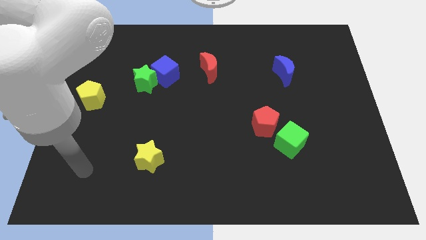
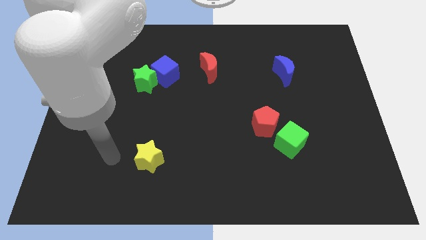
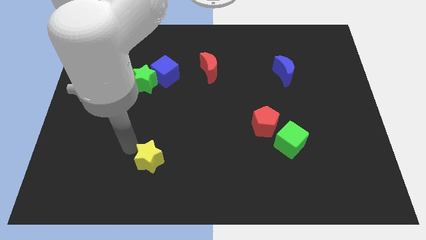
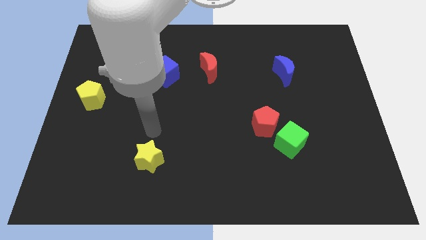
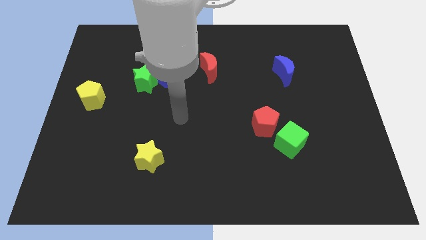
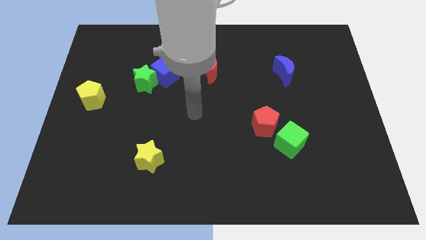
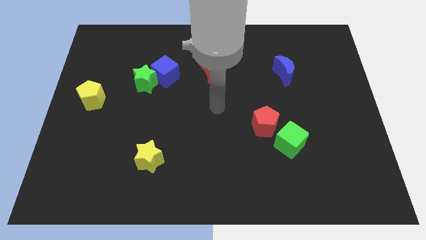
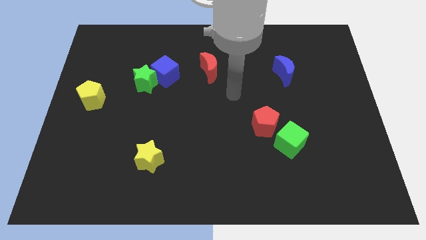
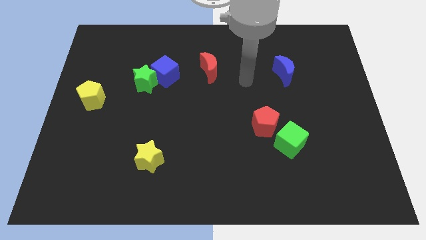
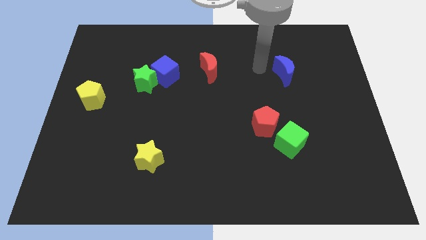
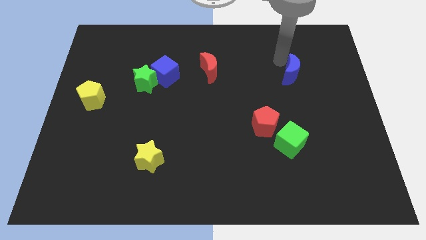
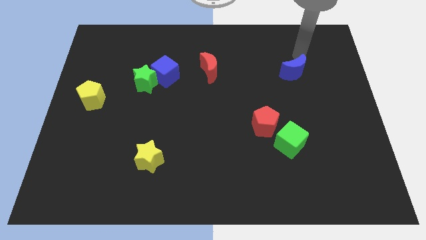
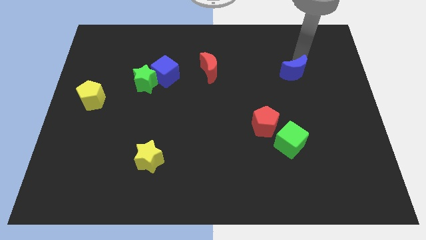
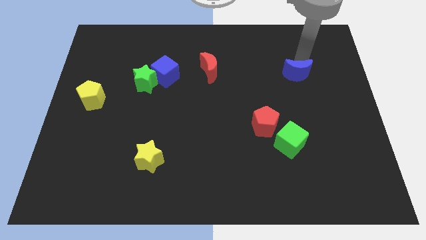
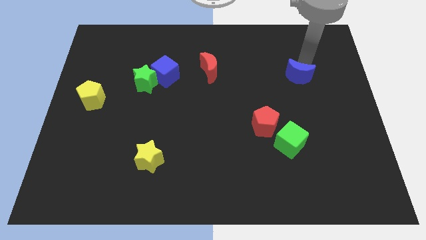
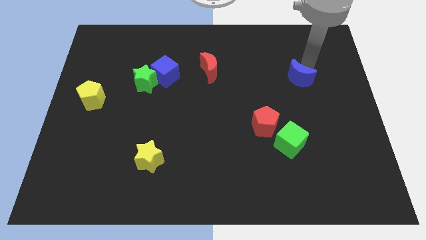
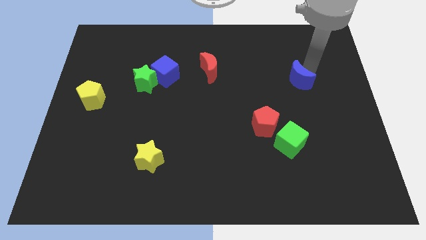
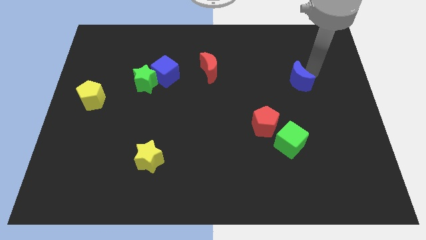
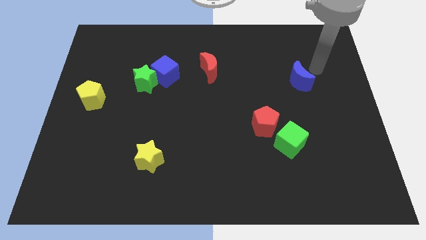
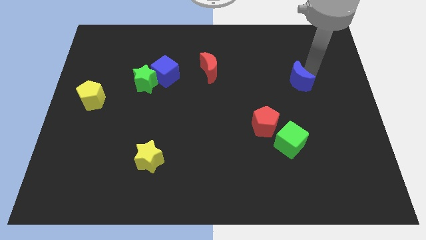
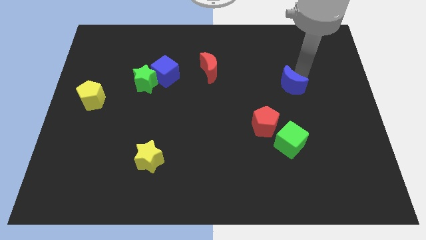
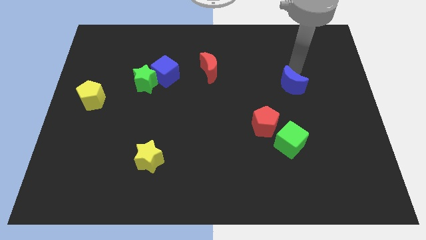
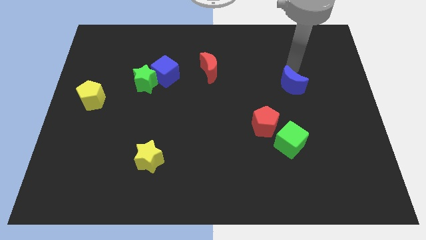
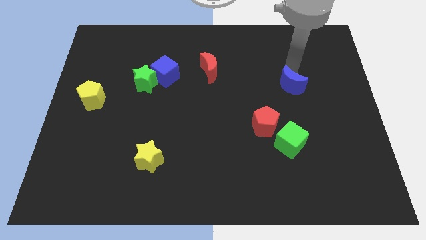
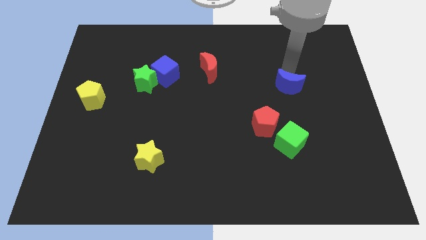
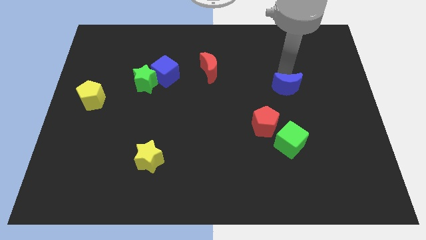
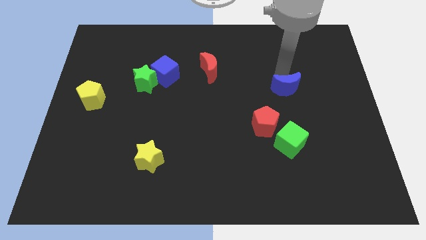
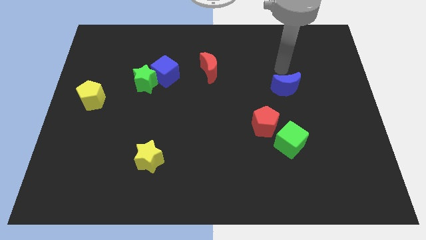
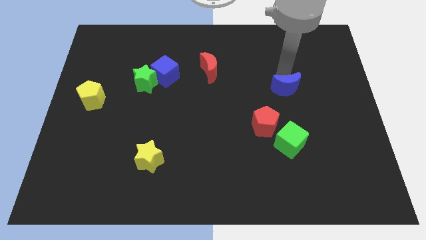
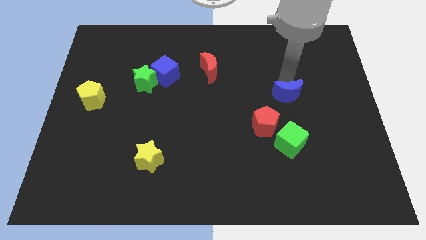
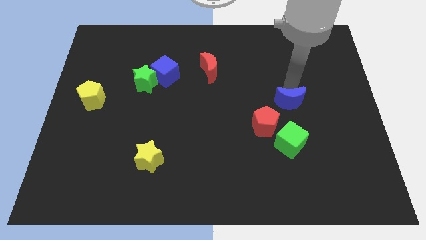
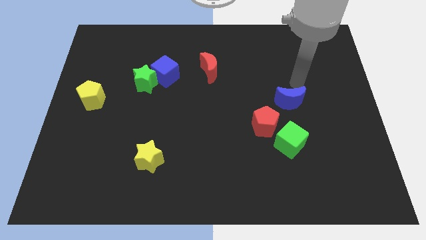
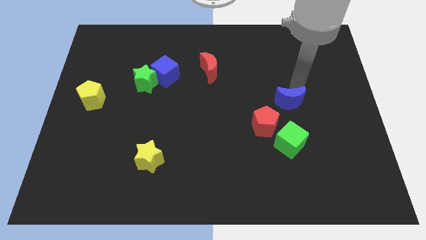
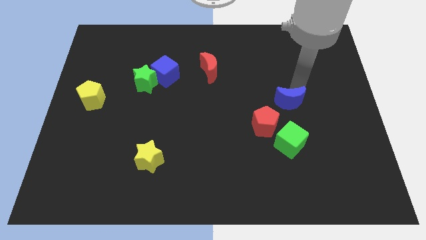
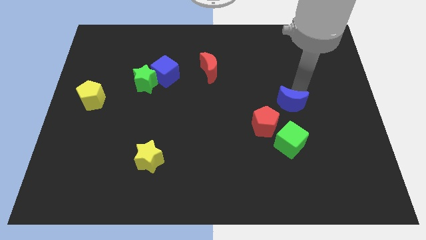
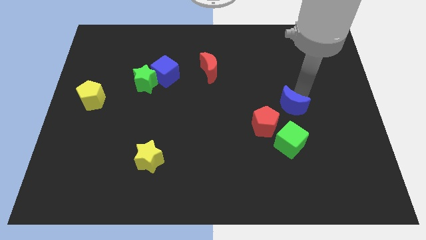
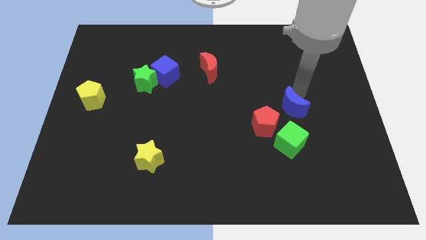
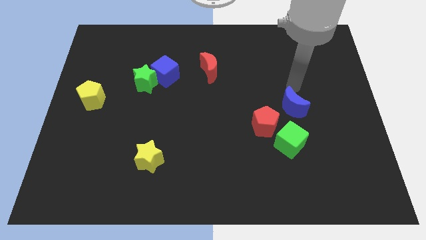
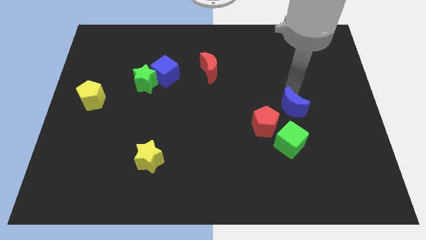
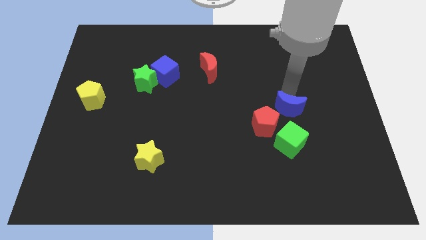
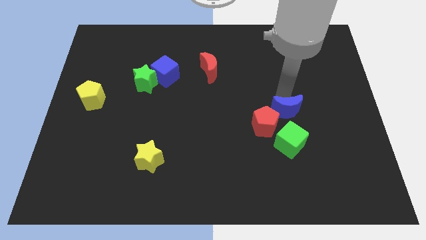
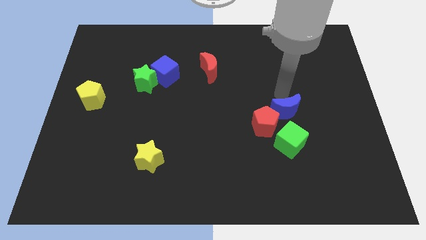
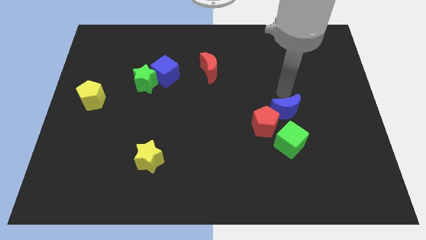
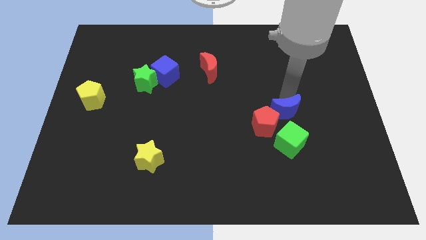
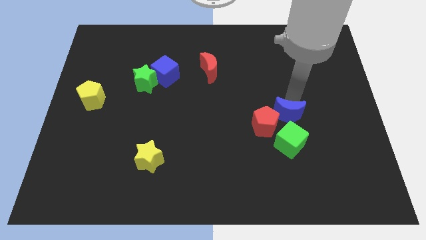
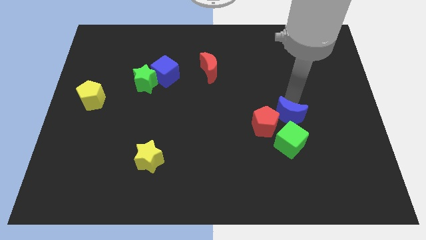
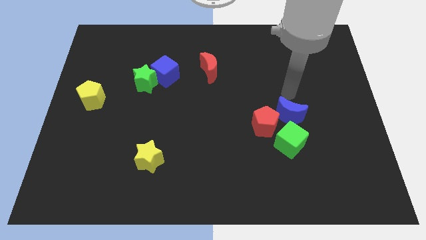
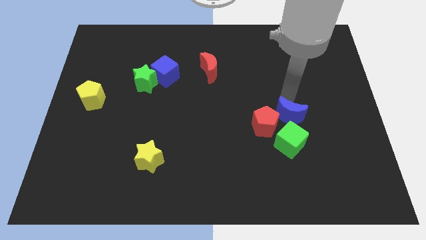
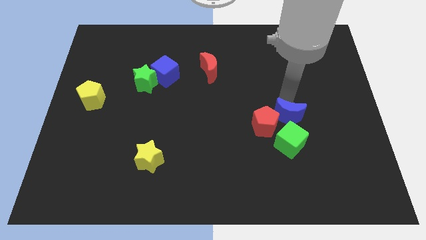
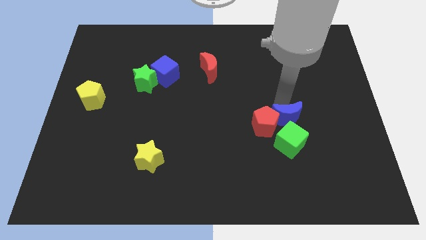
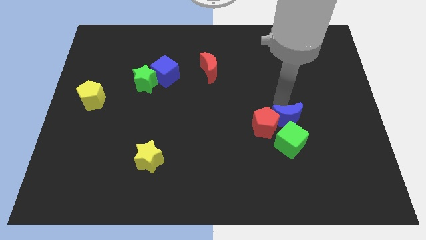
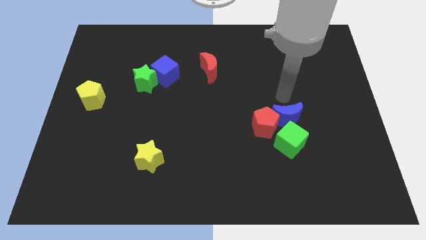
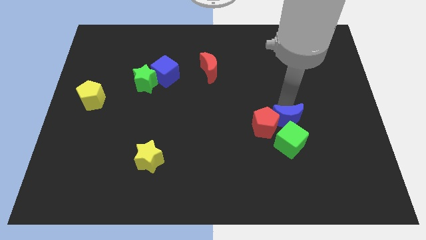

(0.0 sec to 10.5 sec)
slide the blue moon next to the green cube

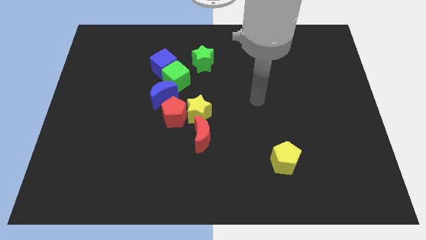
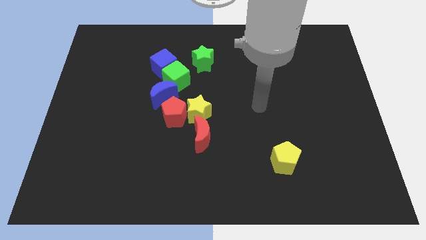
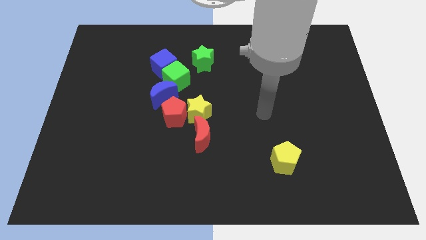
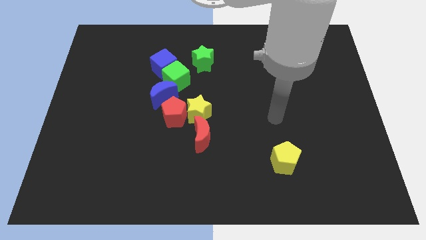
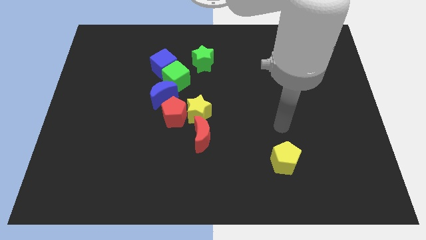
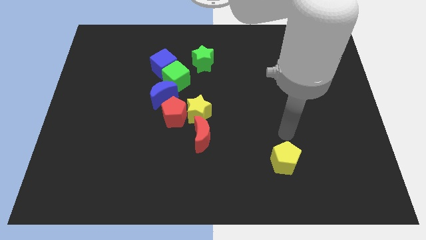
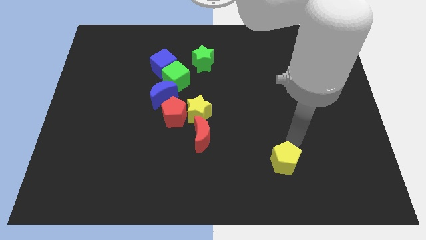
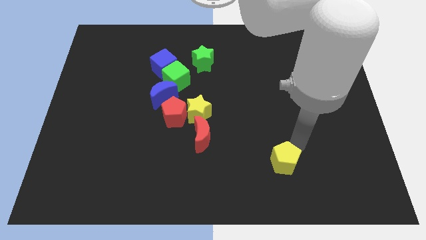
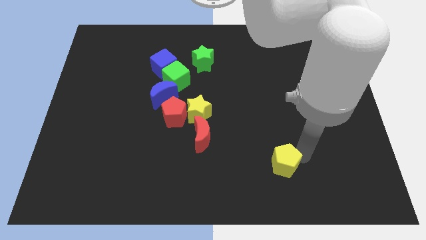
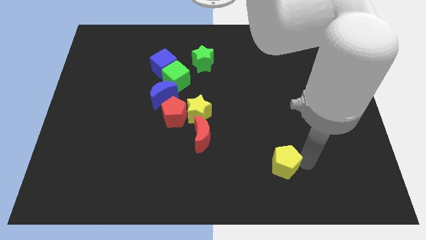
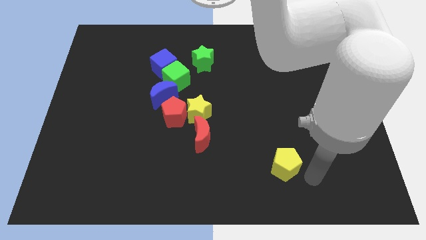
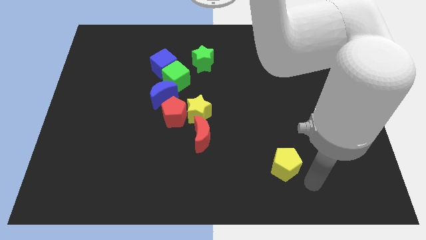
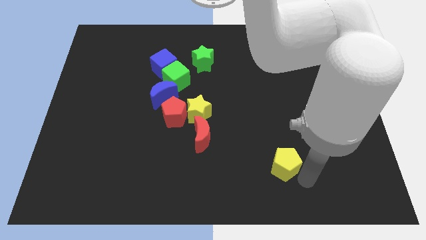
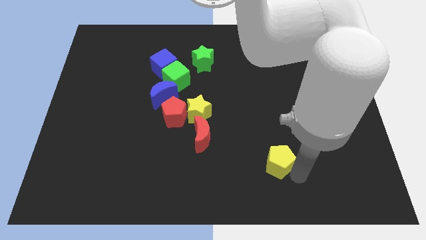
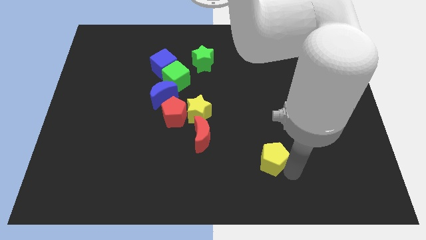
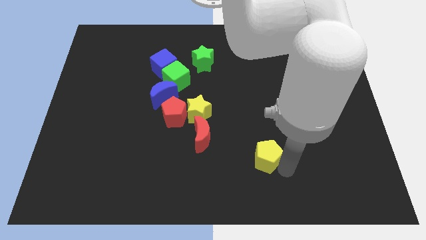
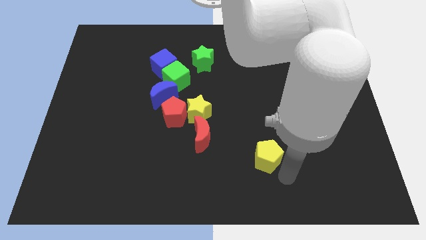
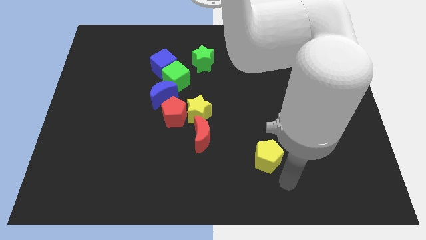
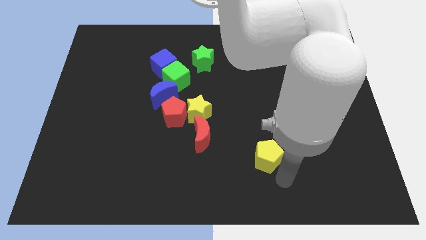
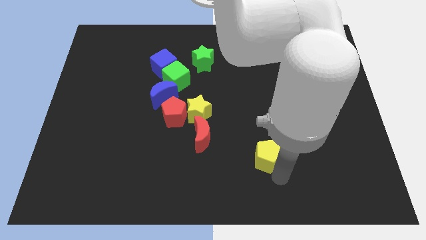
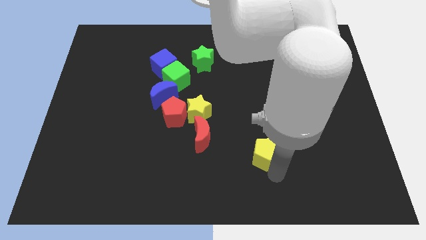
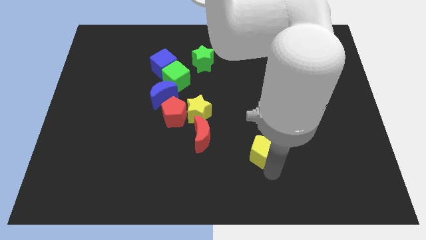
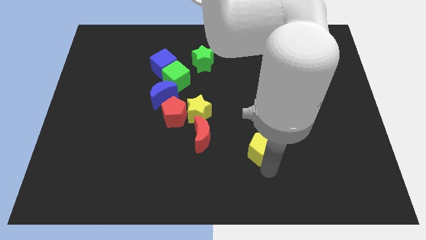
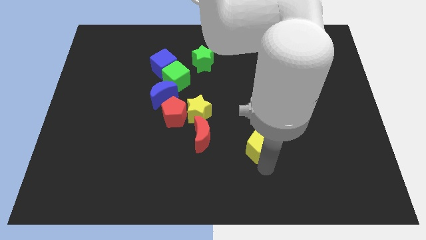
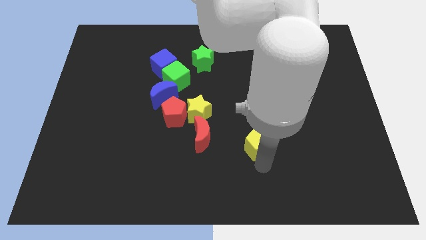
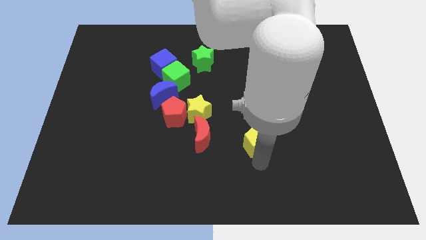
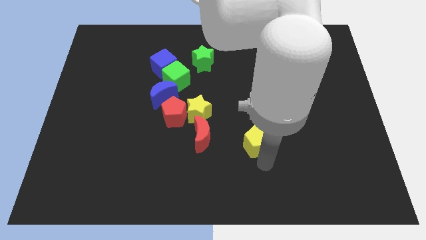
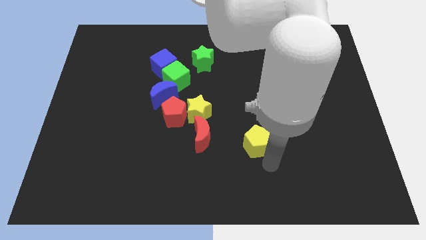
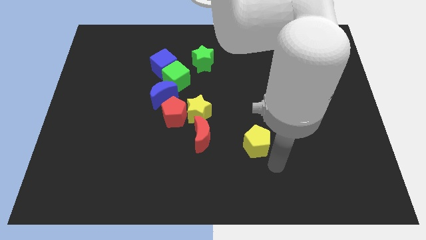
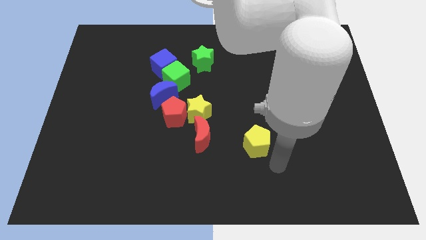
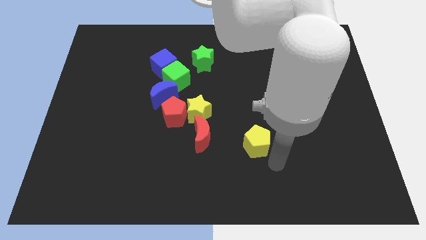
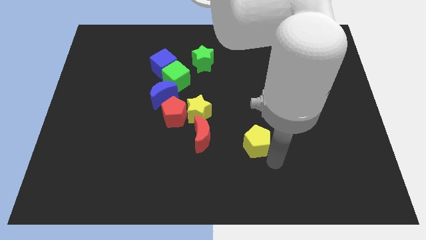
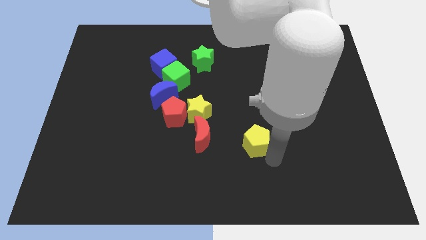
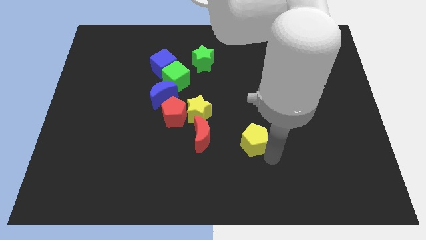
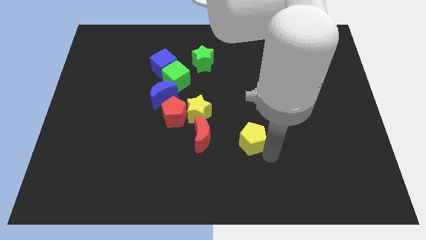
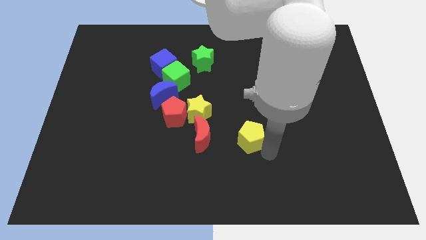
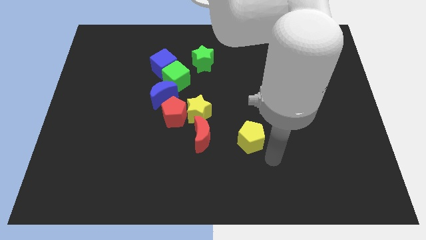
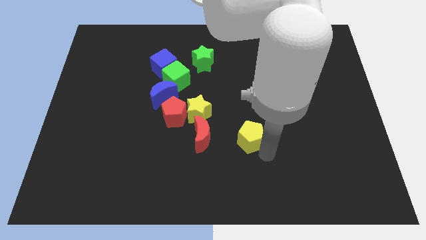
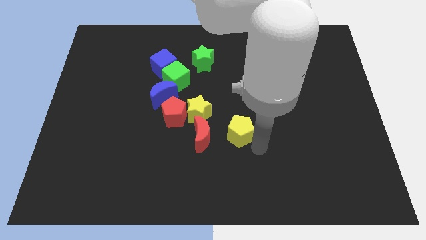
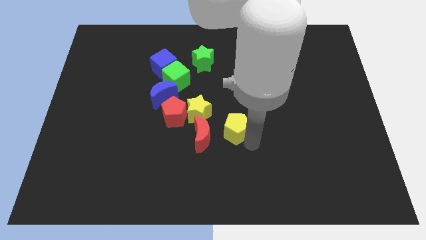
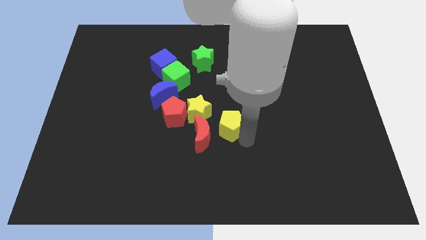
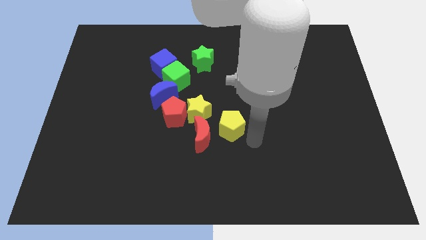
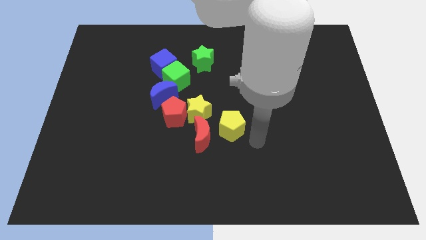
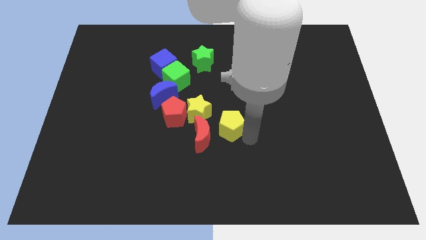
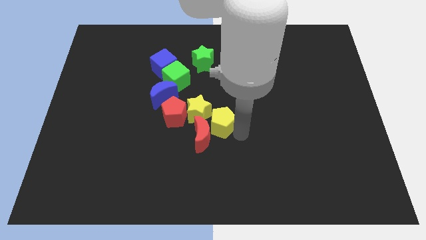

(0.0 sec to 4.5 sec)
slide the yellow pentagon next to the yellow star
